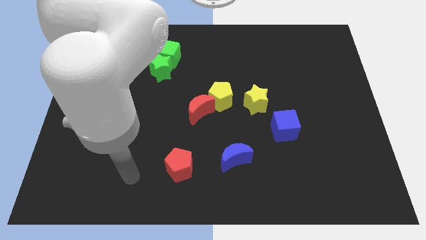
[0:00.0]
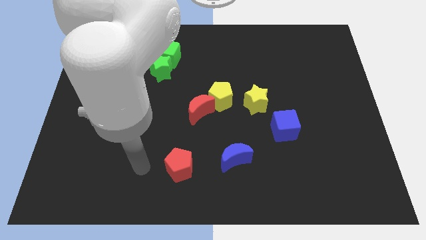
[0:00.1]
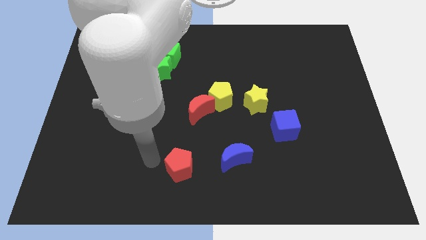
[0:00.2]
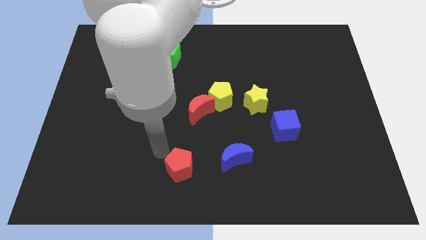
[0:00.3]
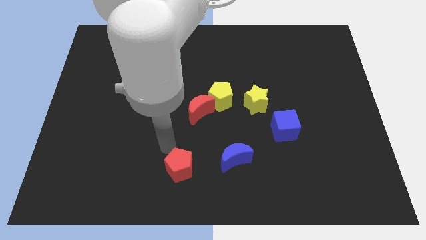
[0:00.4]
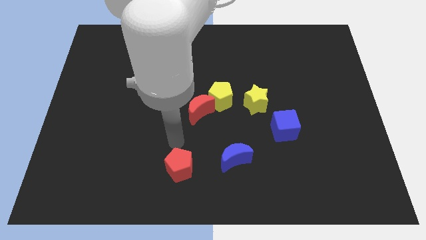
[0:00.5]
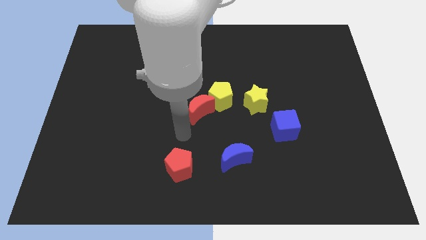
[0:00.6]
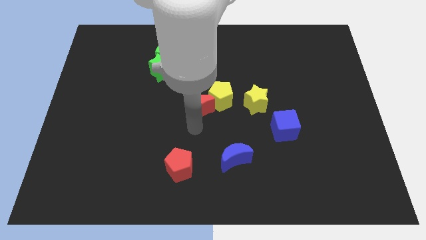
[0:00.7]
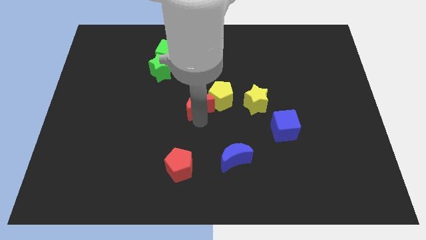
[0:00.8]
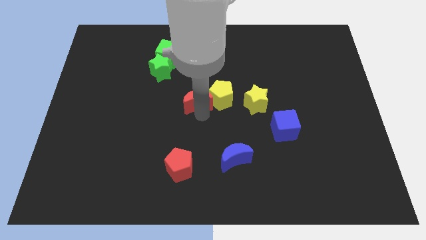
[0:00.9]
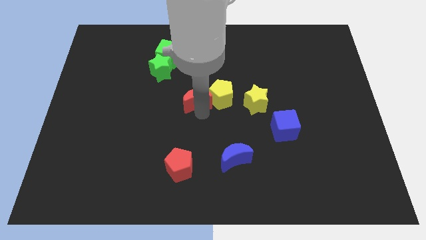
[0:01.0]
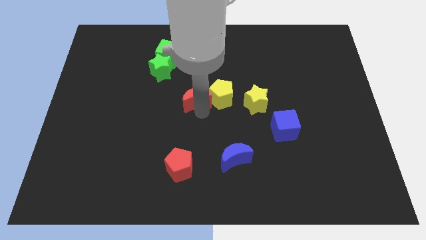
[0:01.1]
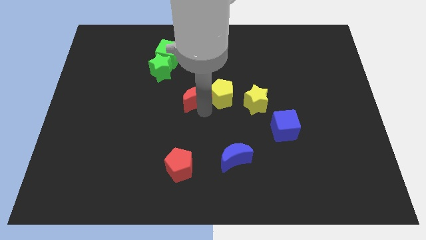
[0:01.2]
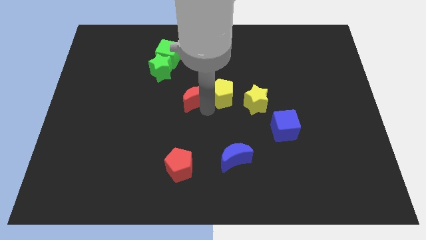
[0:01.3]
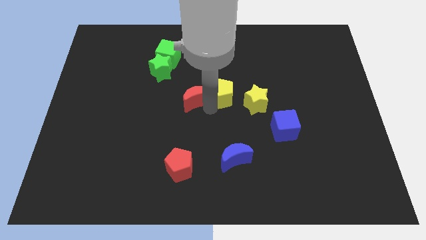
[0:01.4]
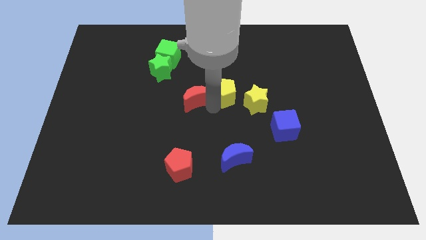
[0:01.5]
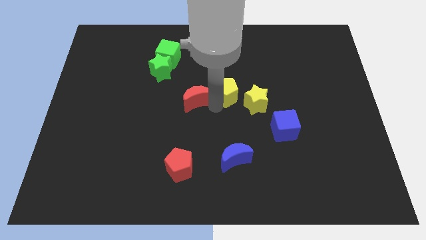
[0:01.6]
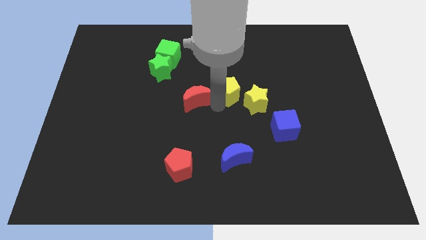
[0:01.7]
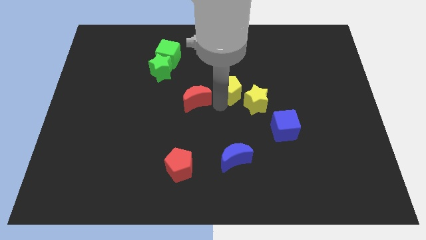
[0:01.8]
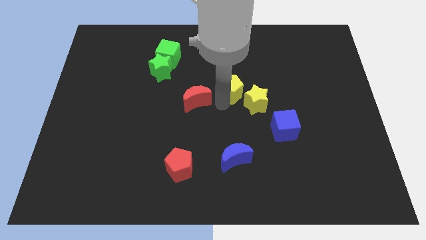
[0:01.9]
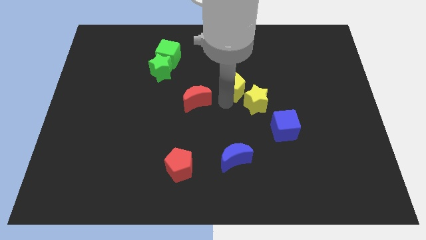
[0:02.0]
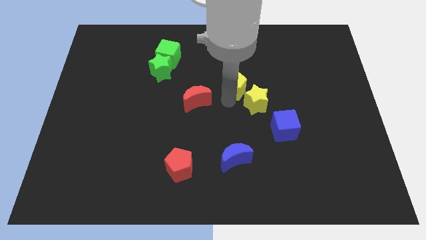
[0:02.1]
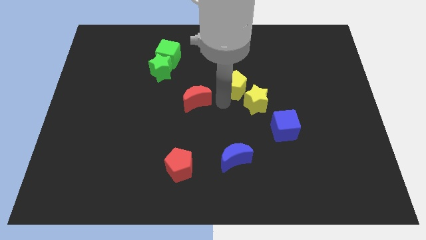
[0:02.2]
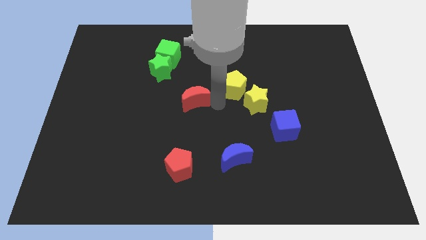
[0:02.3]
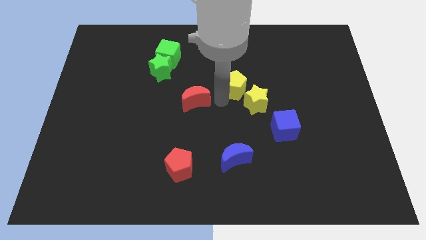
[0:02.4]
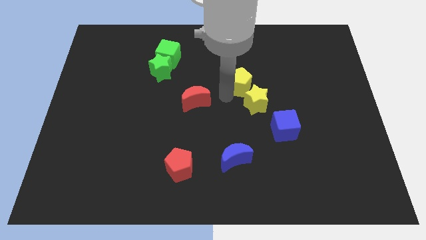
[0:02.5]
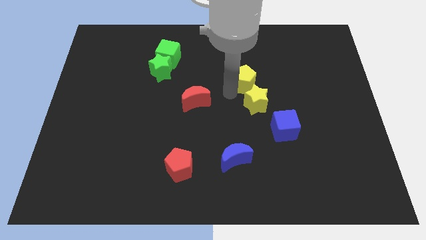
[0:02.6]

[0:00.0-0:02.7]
push the yellow pentagon a little diagonally up and right

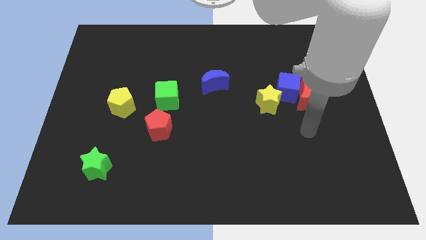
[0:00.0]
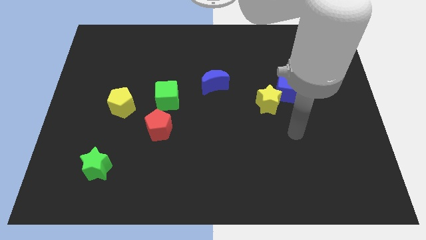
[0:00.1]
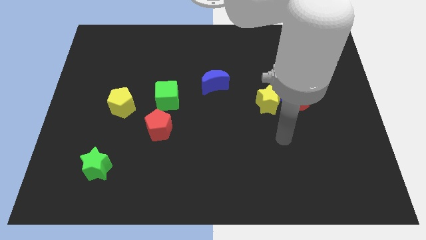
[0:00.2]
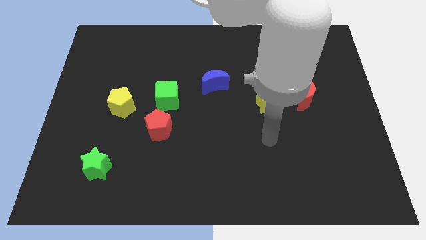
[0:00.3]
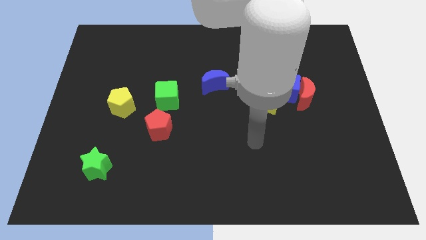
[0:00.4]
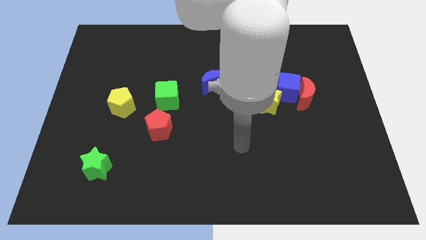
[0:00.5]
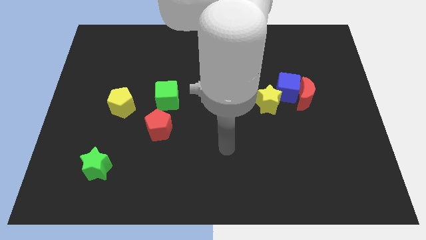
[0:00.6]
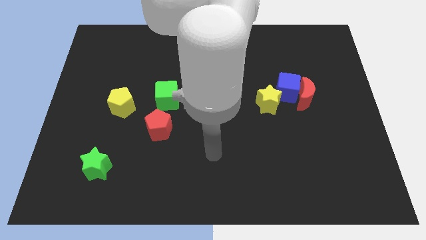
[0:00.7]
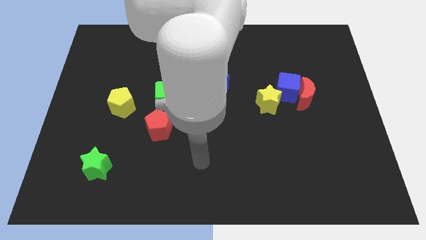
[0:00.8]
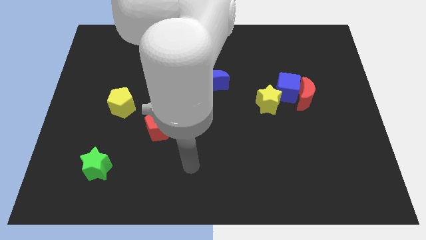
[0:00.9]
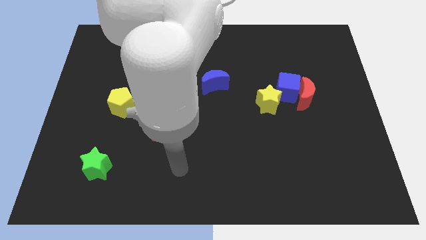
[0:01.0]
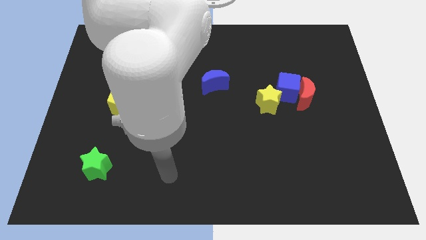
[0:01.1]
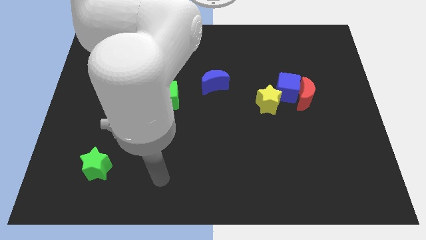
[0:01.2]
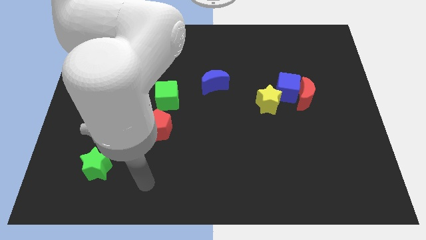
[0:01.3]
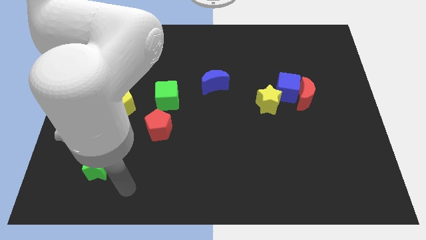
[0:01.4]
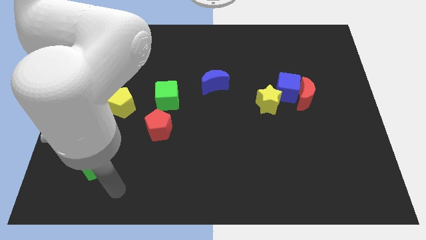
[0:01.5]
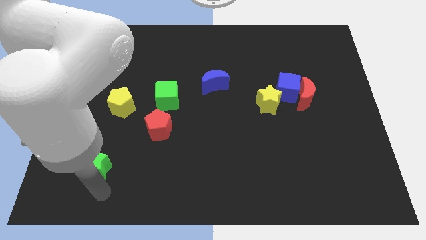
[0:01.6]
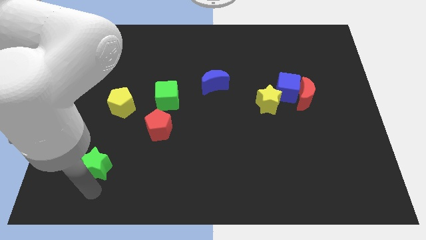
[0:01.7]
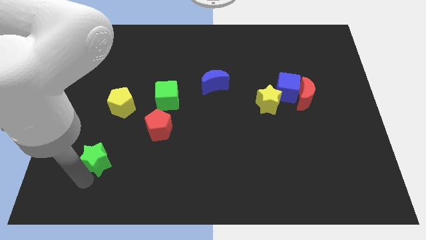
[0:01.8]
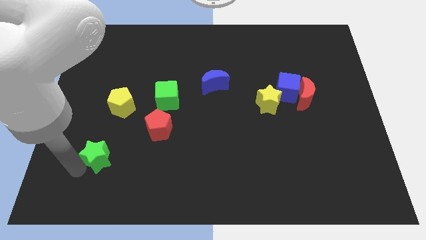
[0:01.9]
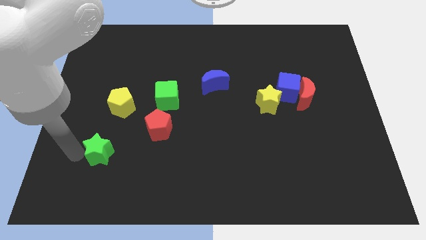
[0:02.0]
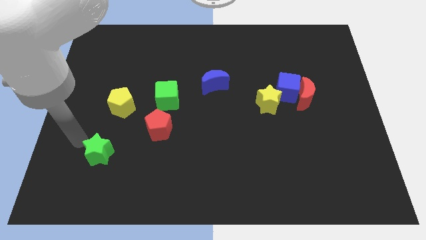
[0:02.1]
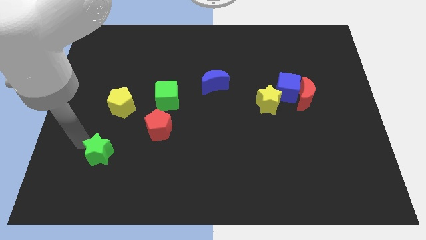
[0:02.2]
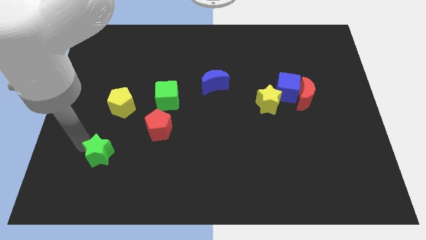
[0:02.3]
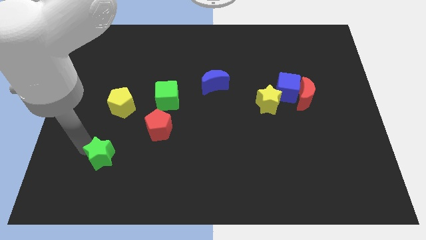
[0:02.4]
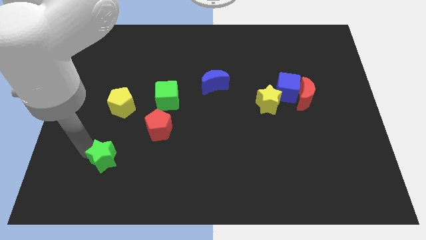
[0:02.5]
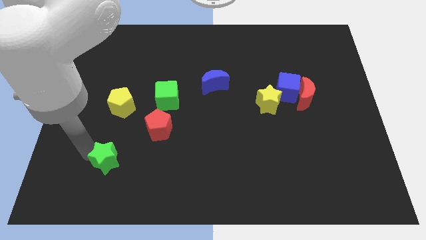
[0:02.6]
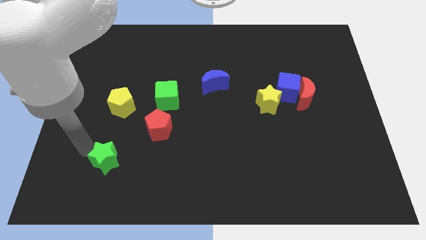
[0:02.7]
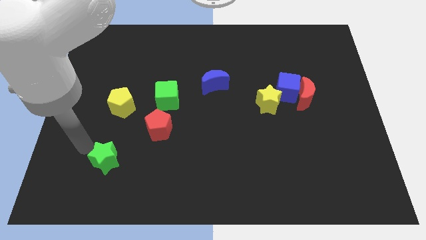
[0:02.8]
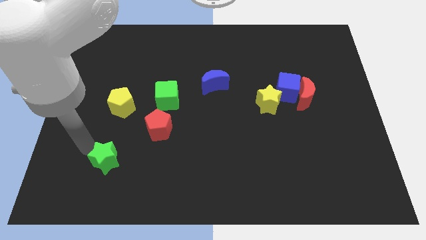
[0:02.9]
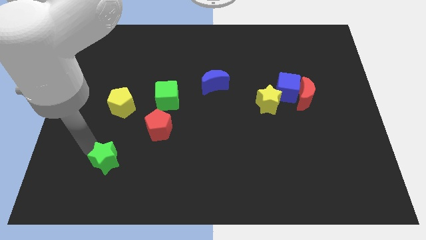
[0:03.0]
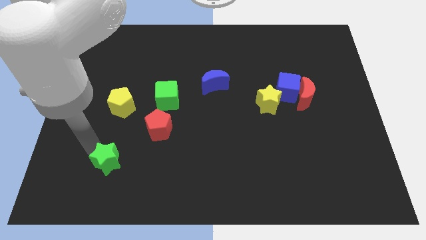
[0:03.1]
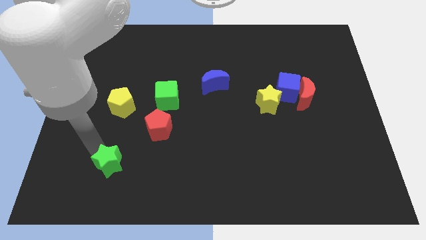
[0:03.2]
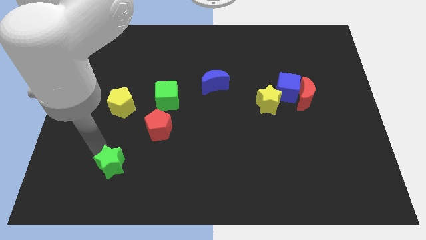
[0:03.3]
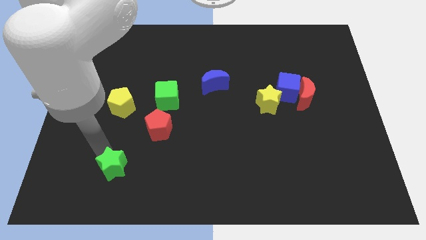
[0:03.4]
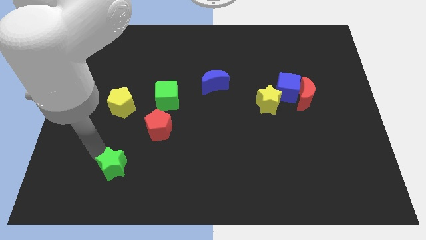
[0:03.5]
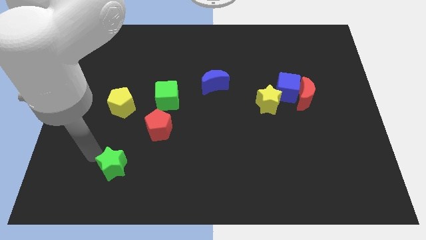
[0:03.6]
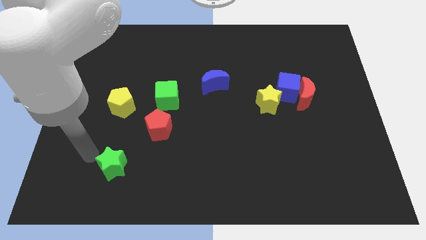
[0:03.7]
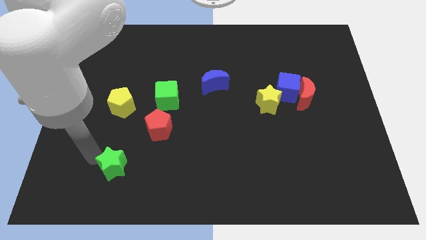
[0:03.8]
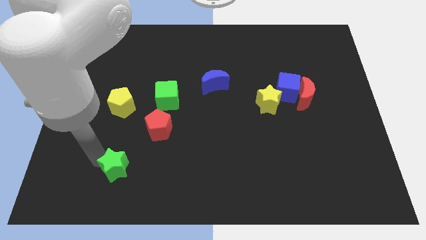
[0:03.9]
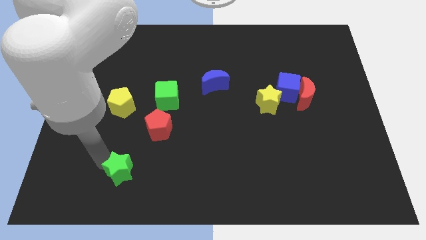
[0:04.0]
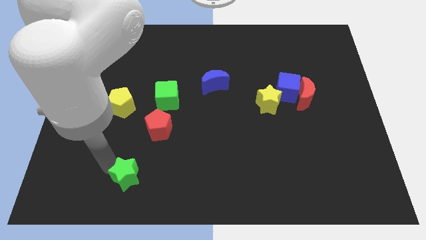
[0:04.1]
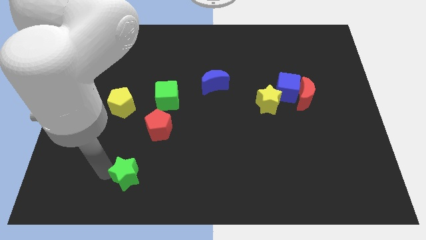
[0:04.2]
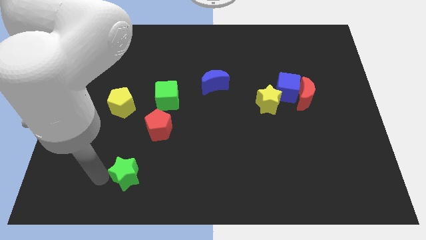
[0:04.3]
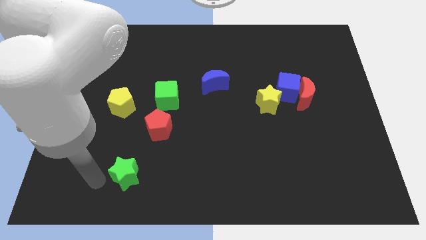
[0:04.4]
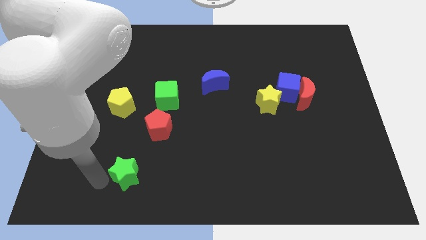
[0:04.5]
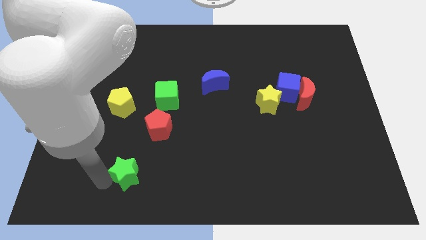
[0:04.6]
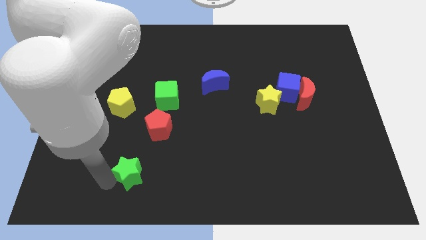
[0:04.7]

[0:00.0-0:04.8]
slightly move the green star to the right

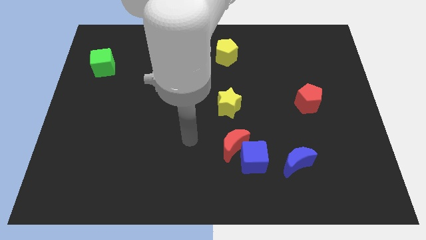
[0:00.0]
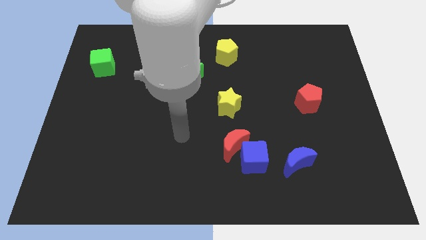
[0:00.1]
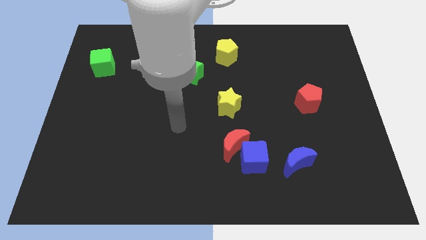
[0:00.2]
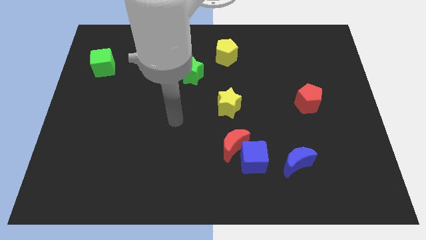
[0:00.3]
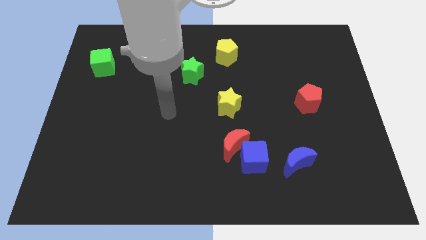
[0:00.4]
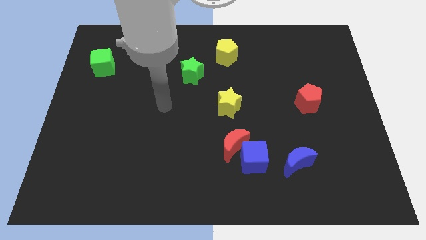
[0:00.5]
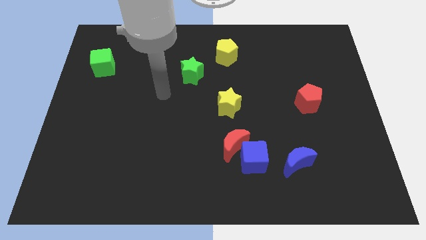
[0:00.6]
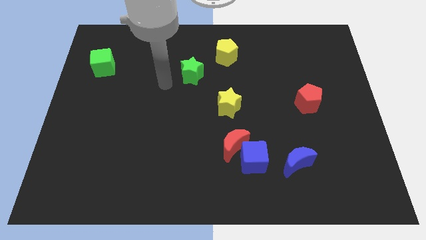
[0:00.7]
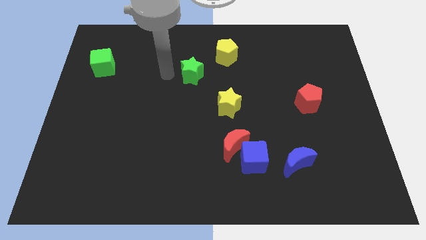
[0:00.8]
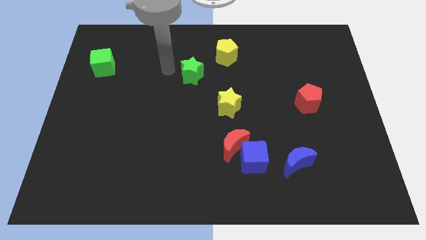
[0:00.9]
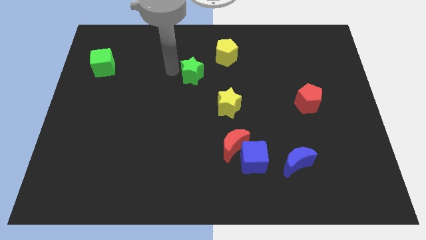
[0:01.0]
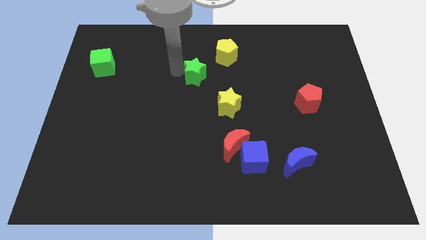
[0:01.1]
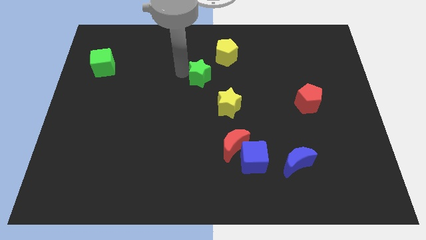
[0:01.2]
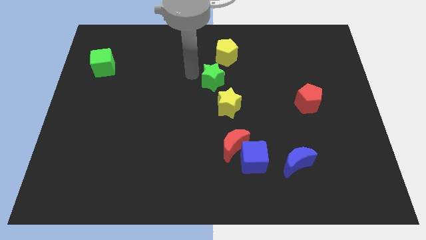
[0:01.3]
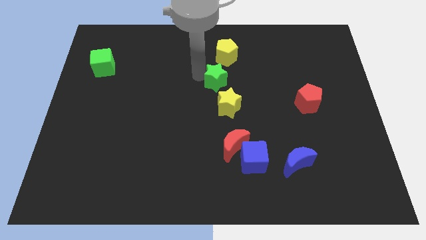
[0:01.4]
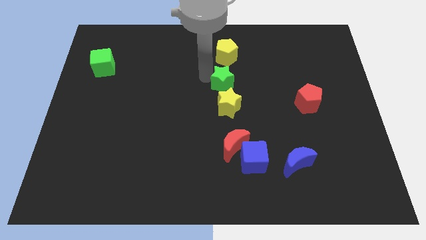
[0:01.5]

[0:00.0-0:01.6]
slightly move the green star diagonally downwards and to the right
